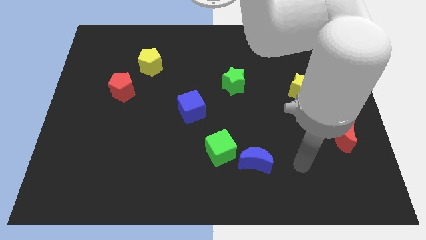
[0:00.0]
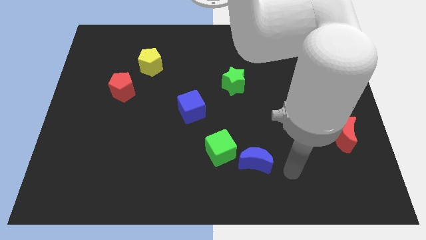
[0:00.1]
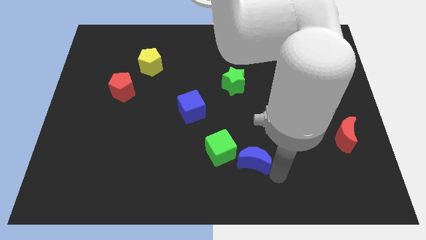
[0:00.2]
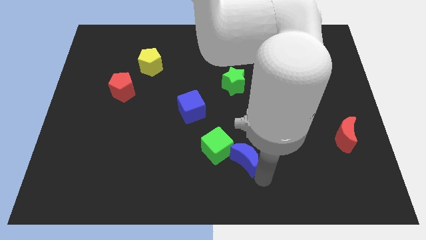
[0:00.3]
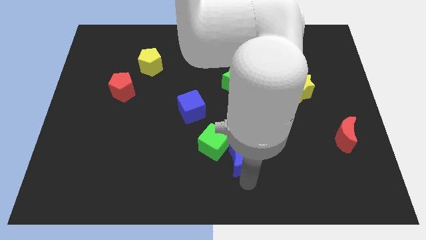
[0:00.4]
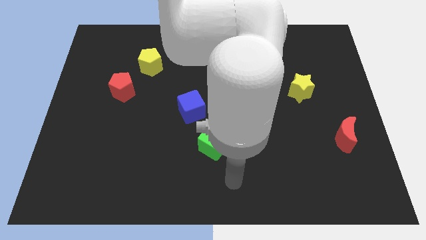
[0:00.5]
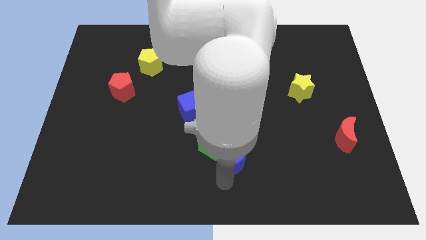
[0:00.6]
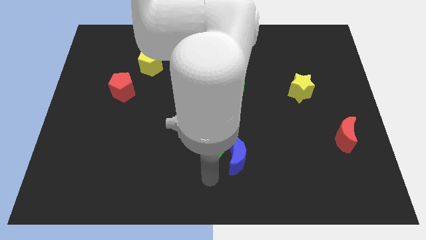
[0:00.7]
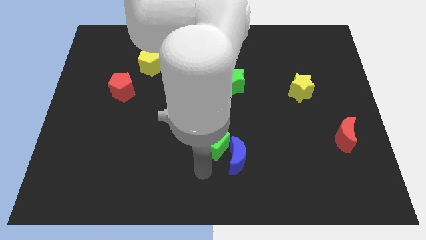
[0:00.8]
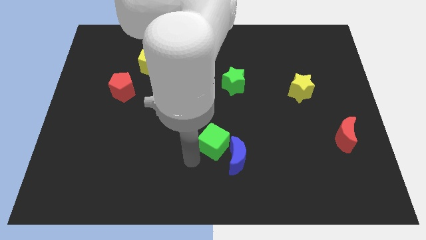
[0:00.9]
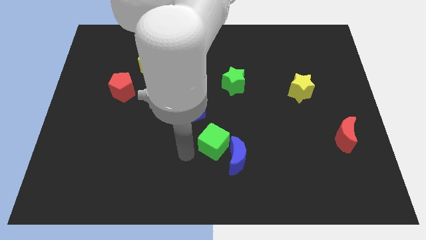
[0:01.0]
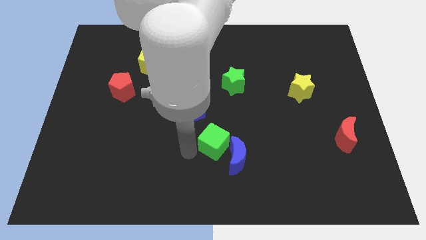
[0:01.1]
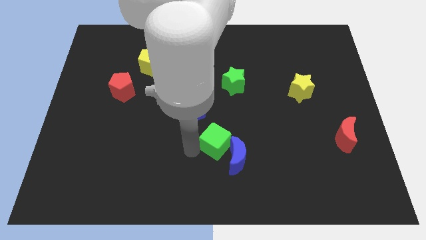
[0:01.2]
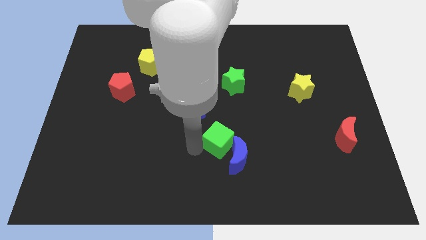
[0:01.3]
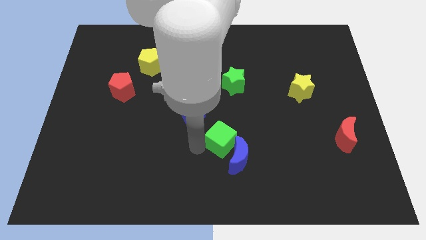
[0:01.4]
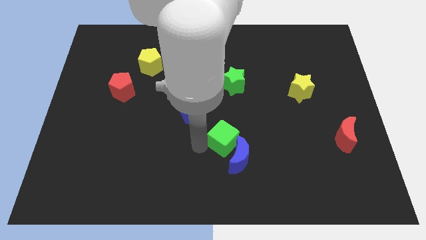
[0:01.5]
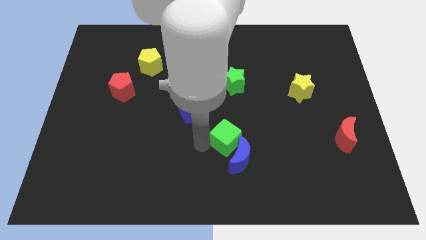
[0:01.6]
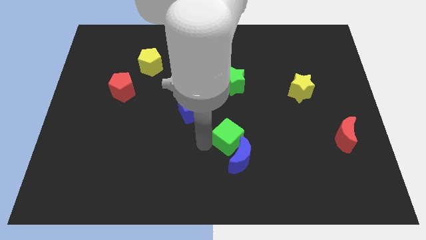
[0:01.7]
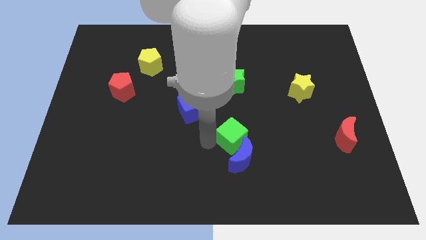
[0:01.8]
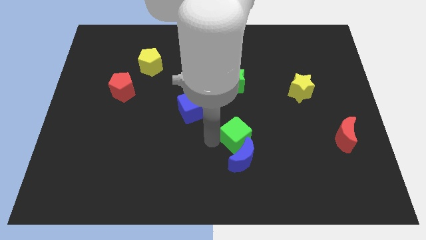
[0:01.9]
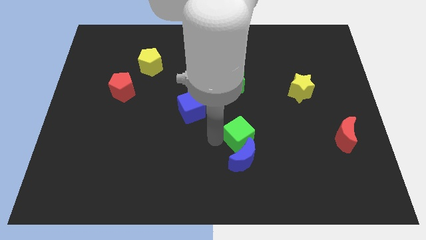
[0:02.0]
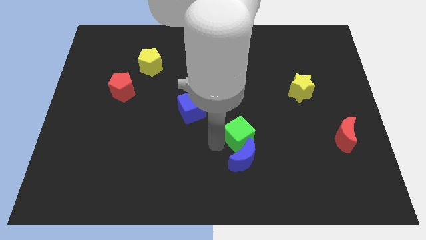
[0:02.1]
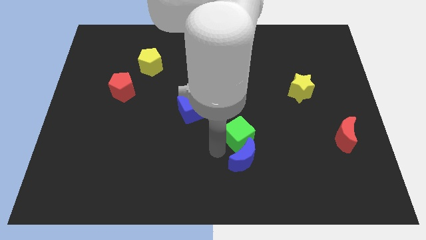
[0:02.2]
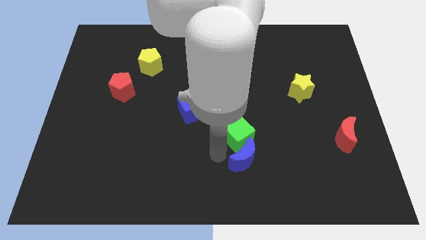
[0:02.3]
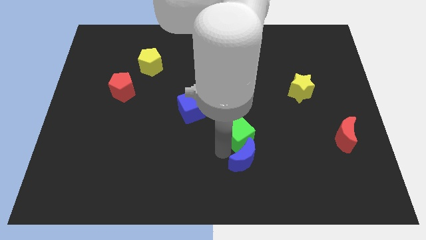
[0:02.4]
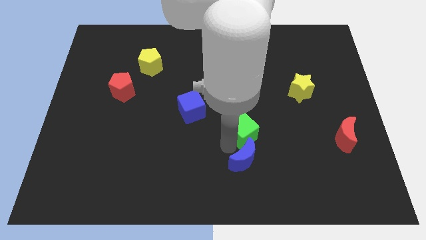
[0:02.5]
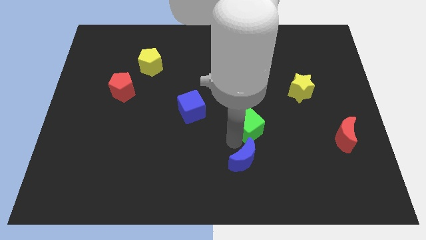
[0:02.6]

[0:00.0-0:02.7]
push the green cube a bit diagonally up and right

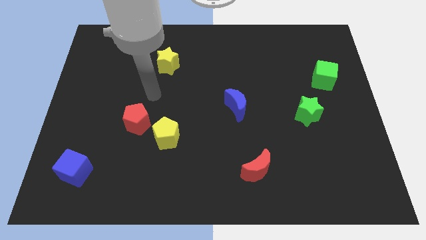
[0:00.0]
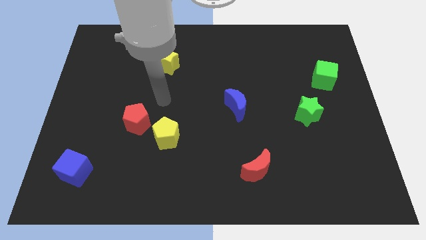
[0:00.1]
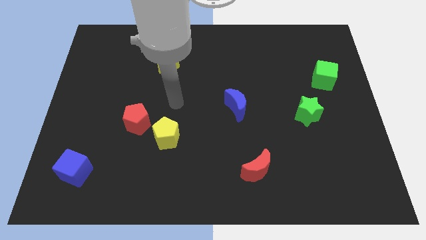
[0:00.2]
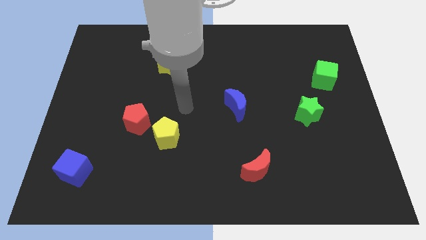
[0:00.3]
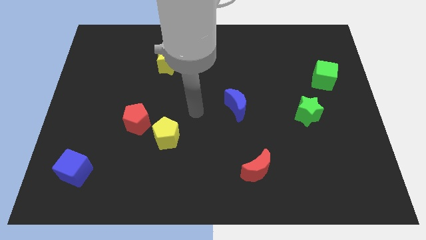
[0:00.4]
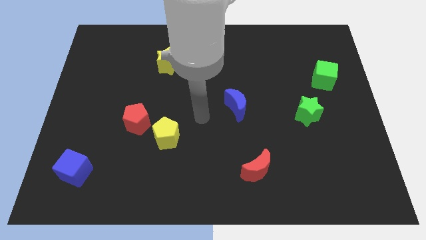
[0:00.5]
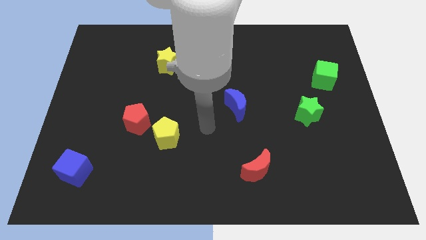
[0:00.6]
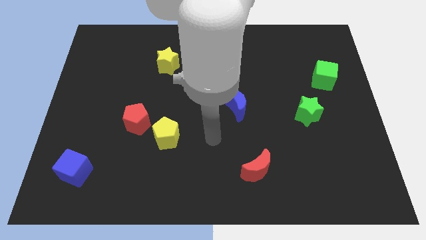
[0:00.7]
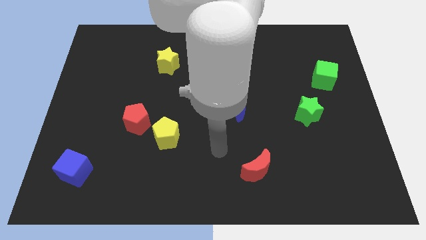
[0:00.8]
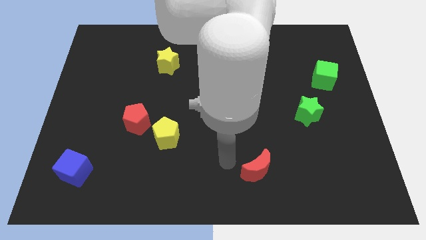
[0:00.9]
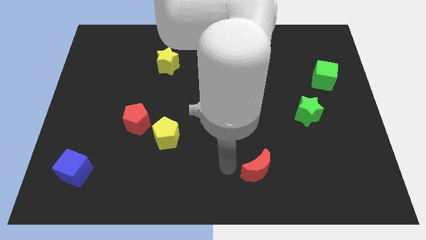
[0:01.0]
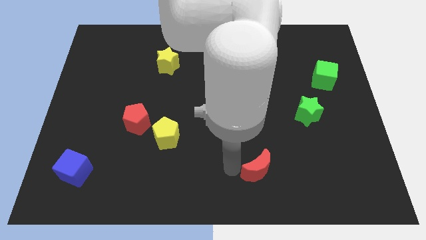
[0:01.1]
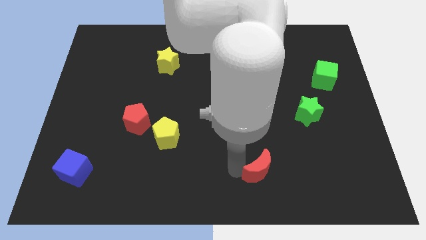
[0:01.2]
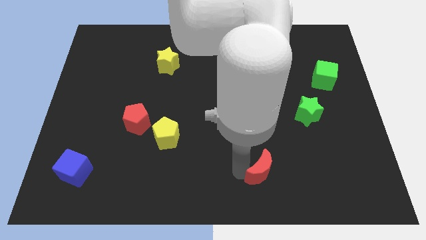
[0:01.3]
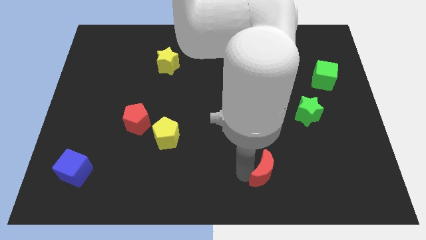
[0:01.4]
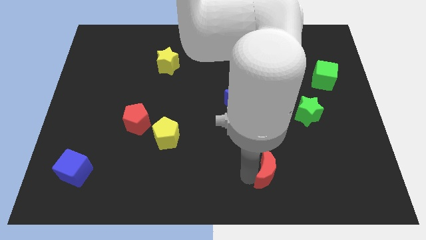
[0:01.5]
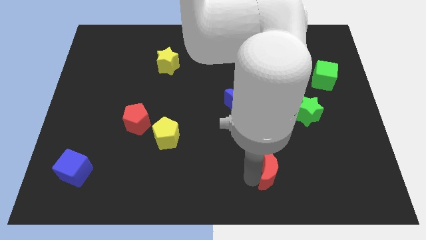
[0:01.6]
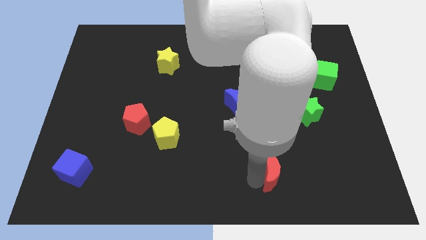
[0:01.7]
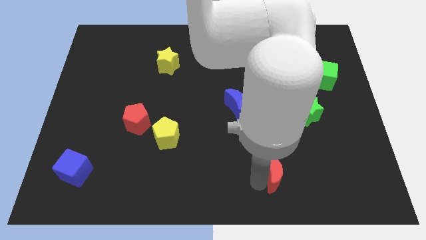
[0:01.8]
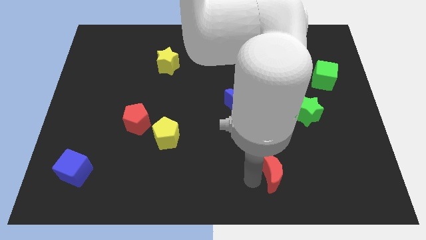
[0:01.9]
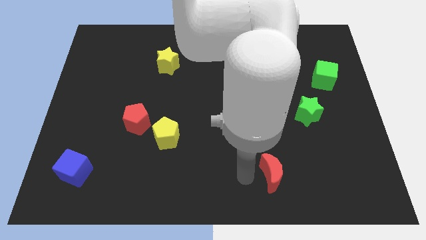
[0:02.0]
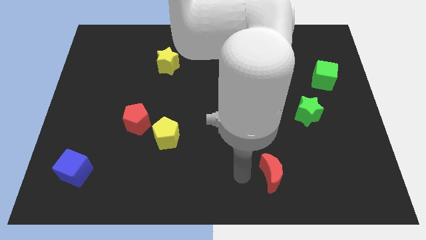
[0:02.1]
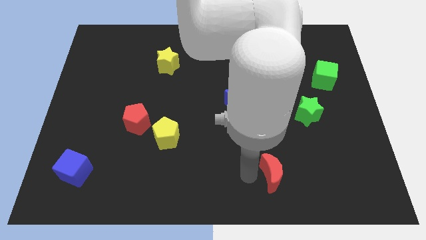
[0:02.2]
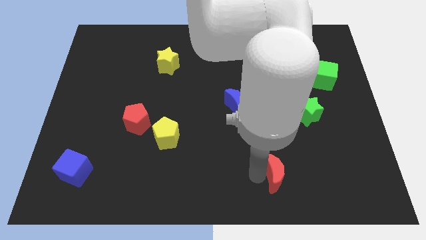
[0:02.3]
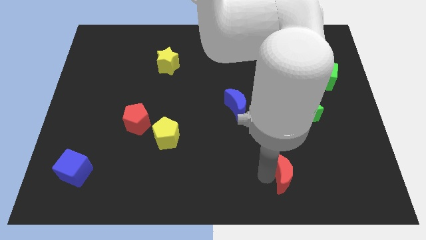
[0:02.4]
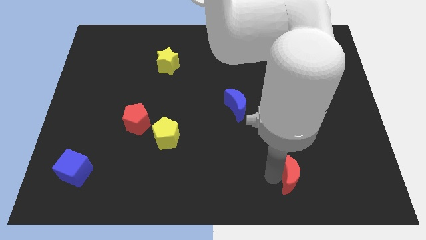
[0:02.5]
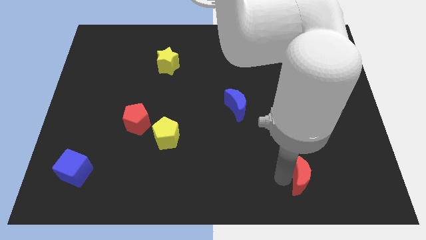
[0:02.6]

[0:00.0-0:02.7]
slide the red moon to the right a bit

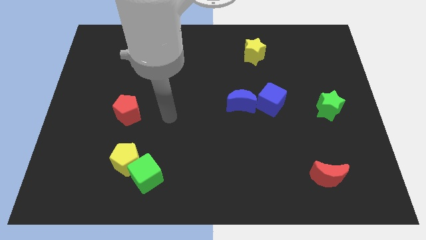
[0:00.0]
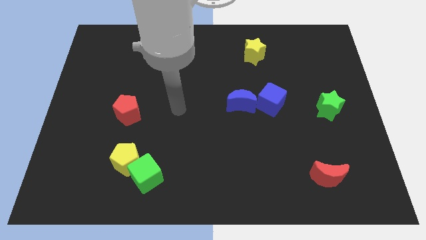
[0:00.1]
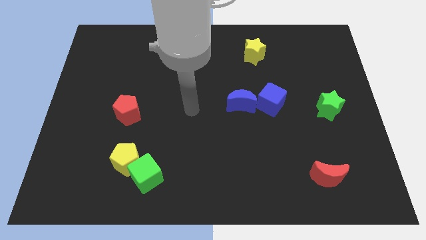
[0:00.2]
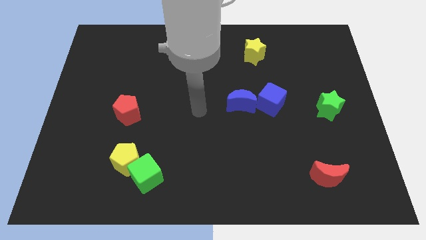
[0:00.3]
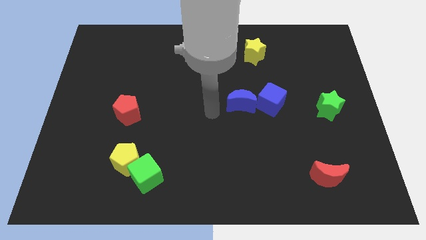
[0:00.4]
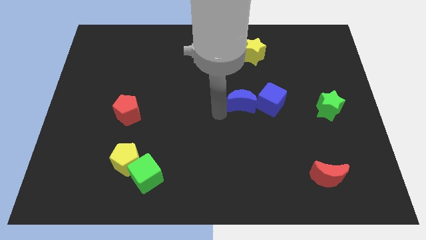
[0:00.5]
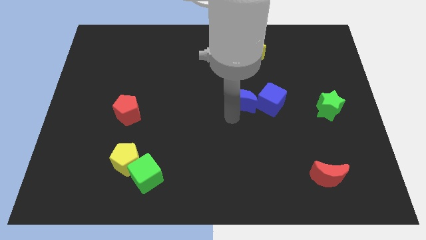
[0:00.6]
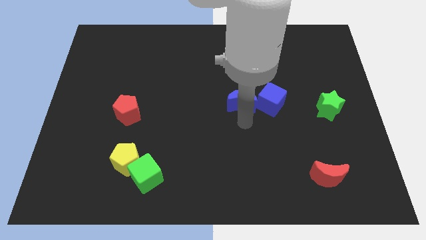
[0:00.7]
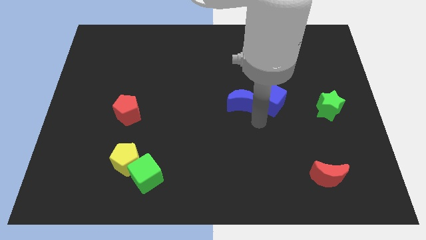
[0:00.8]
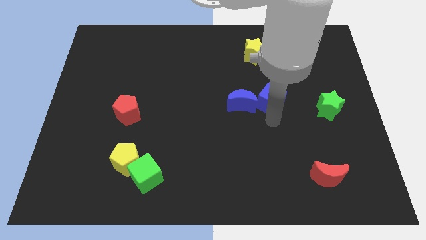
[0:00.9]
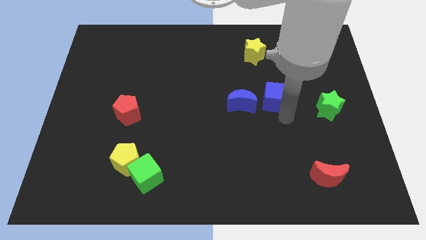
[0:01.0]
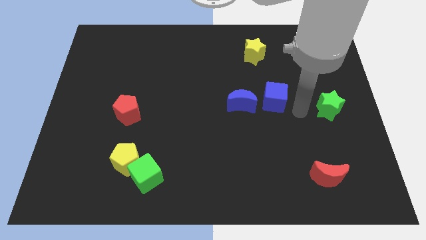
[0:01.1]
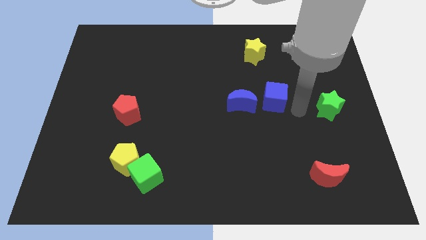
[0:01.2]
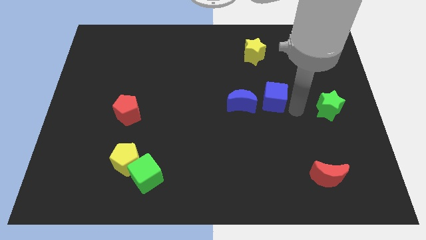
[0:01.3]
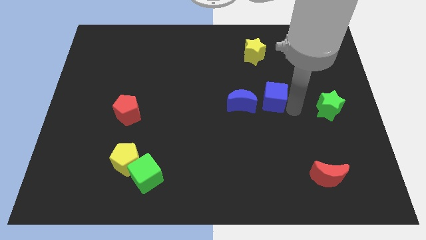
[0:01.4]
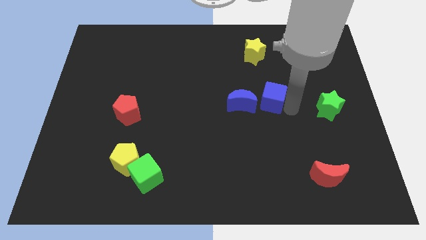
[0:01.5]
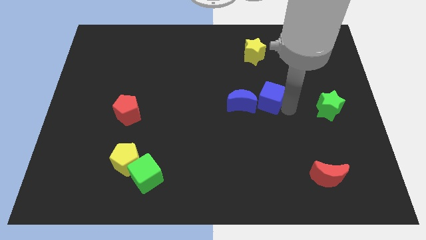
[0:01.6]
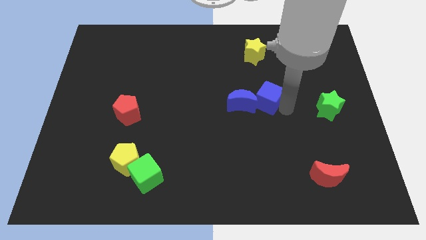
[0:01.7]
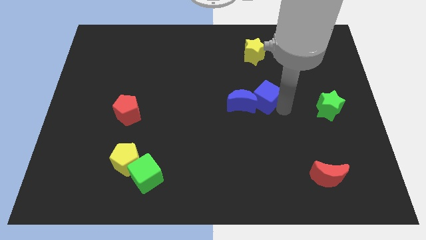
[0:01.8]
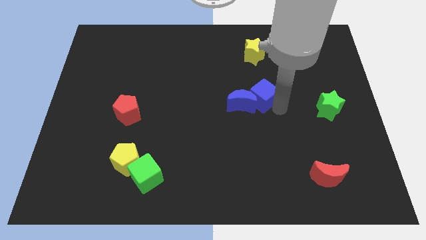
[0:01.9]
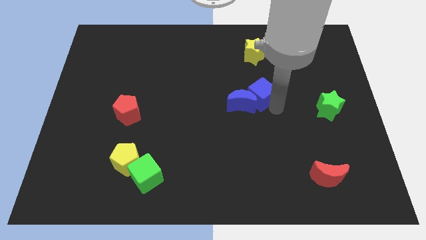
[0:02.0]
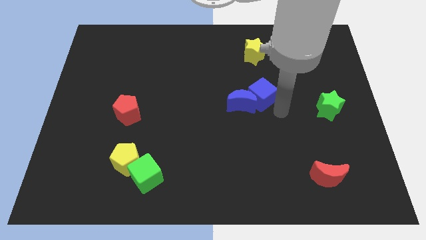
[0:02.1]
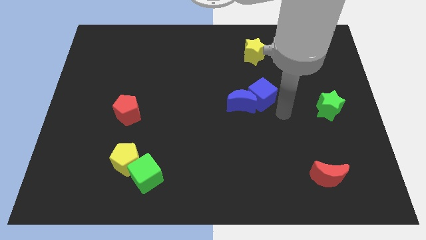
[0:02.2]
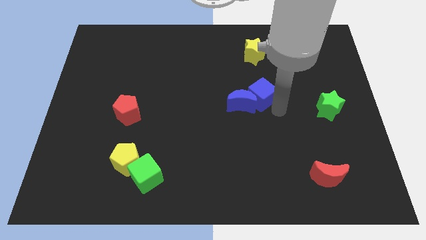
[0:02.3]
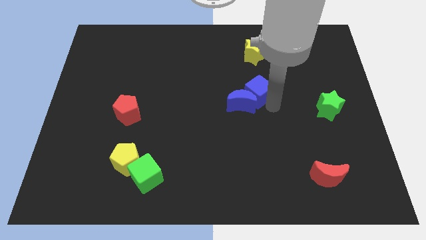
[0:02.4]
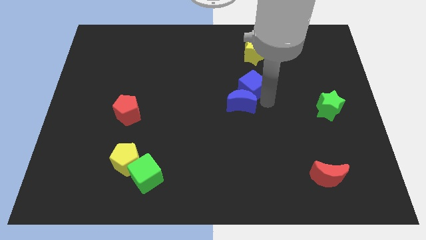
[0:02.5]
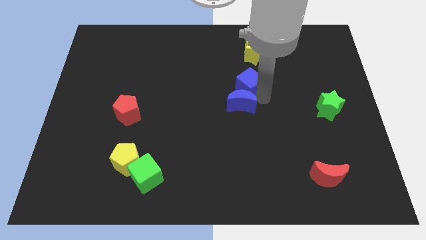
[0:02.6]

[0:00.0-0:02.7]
slide the blue cube a little diagonally up and to the left
